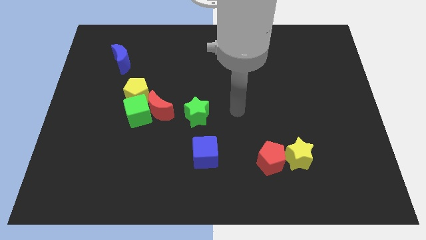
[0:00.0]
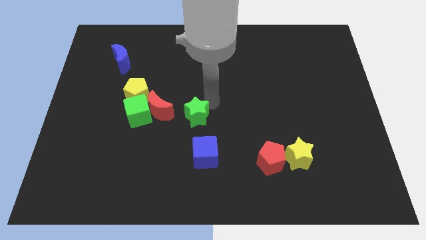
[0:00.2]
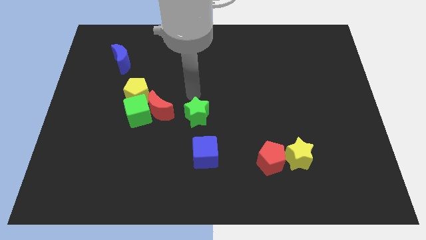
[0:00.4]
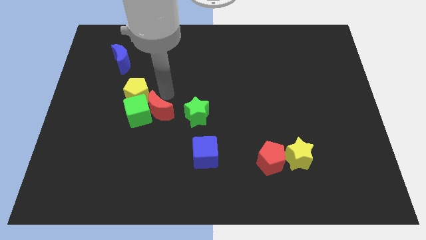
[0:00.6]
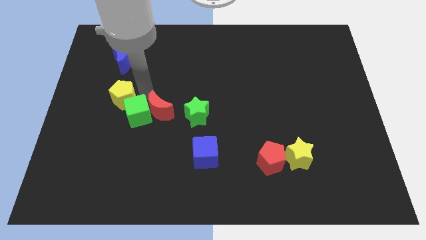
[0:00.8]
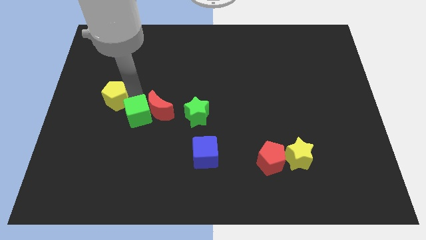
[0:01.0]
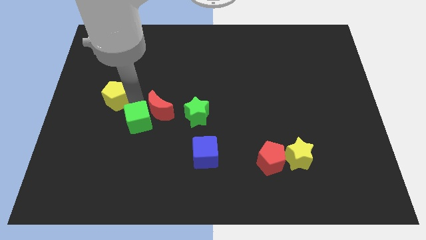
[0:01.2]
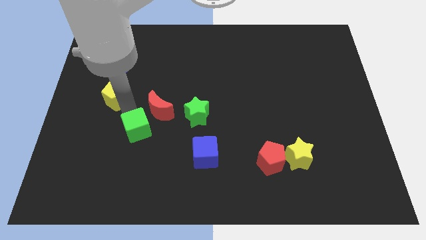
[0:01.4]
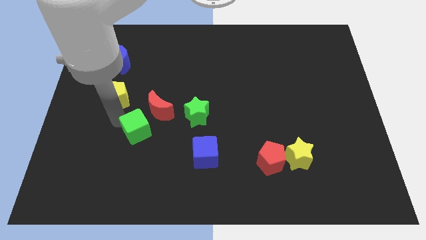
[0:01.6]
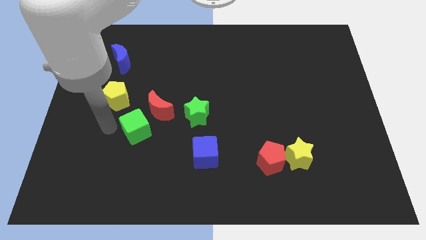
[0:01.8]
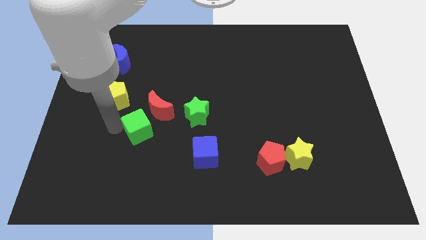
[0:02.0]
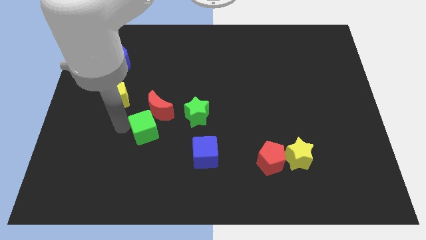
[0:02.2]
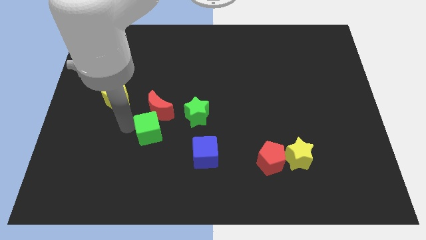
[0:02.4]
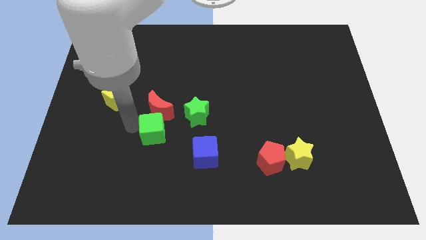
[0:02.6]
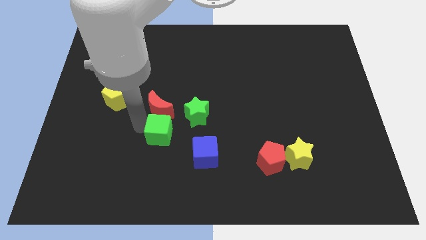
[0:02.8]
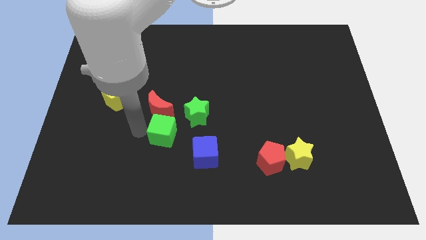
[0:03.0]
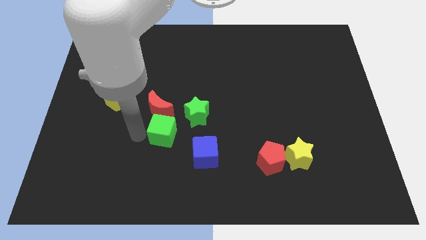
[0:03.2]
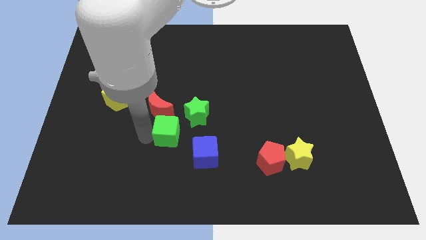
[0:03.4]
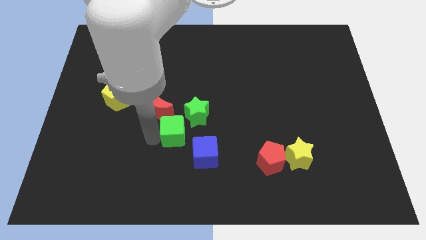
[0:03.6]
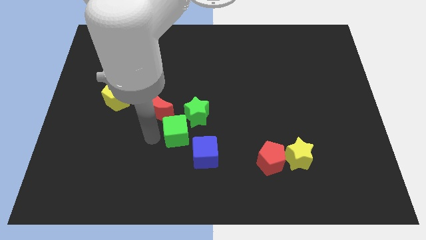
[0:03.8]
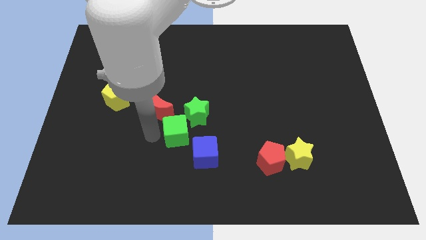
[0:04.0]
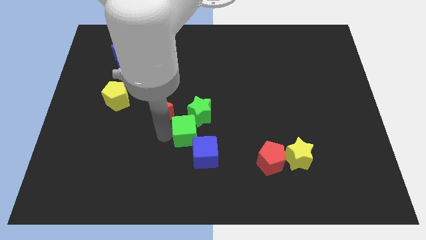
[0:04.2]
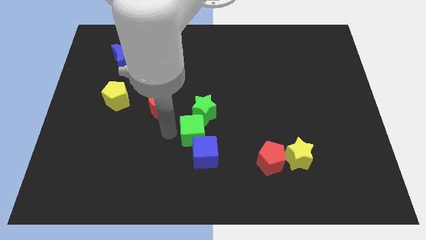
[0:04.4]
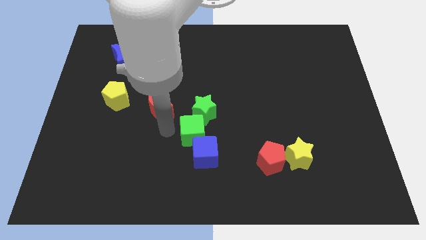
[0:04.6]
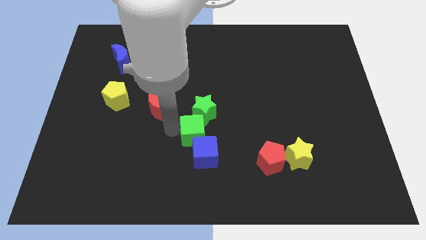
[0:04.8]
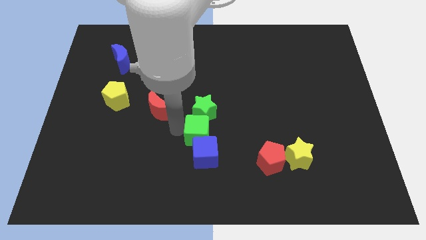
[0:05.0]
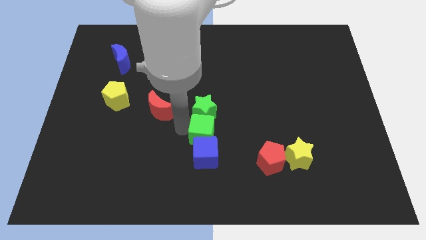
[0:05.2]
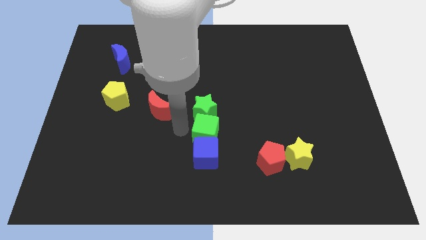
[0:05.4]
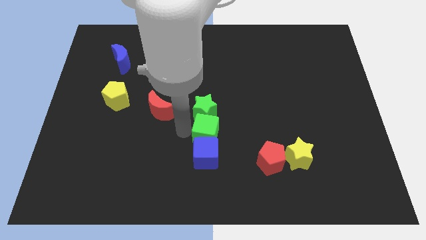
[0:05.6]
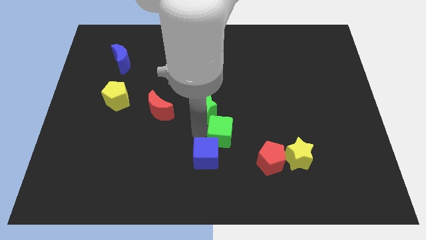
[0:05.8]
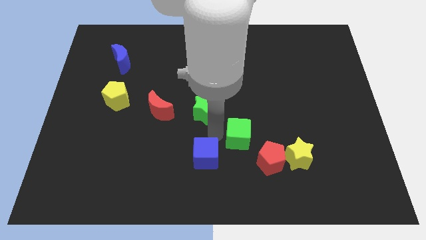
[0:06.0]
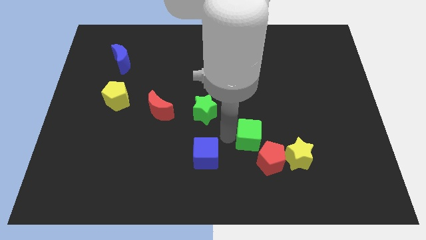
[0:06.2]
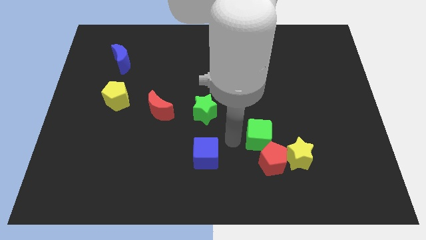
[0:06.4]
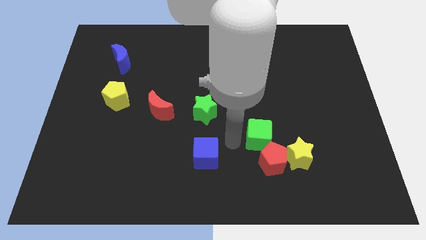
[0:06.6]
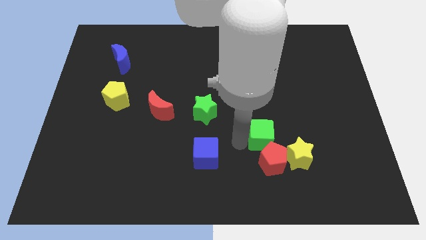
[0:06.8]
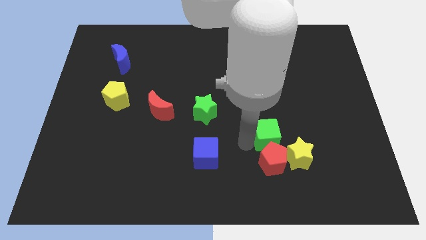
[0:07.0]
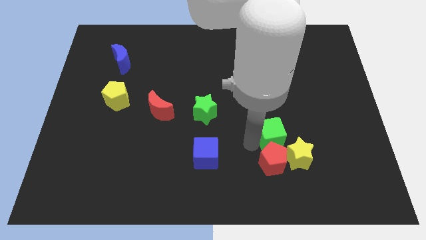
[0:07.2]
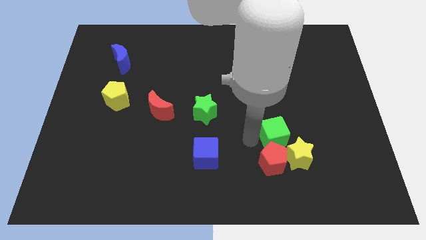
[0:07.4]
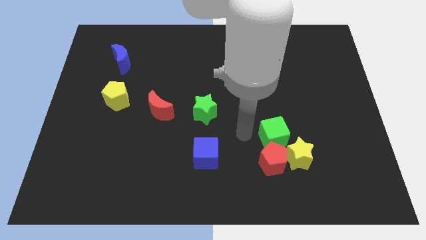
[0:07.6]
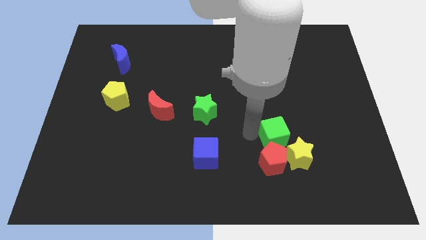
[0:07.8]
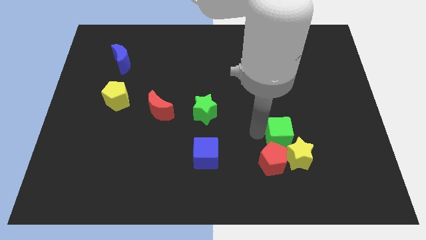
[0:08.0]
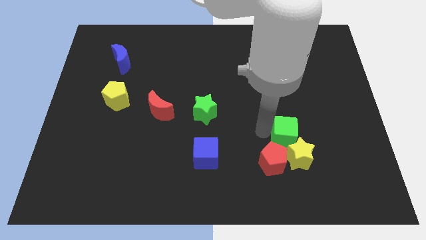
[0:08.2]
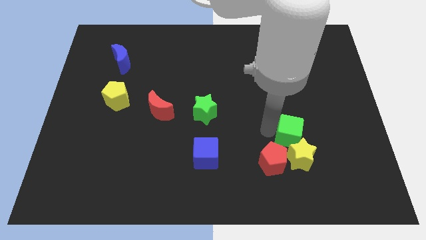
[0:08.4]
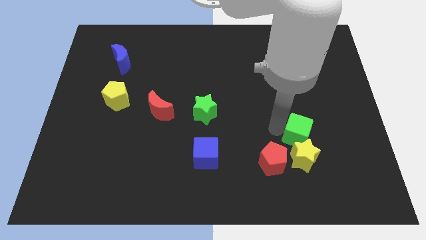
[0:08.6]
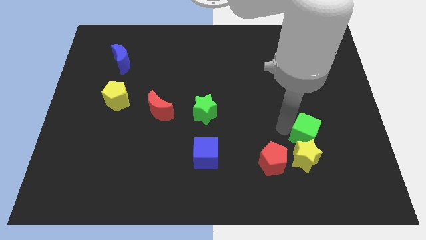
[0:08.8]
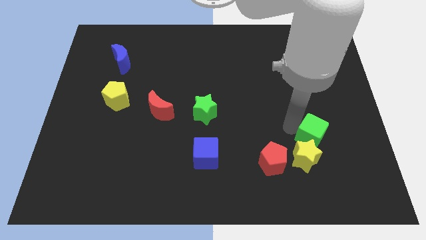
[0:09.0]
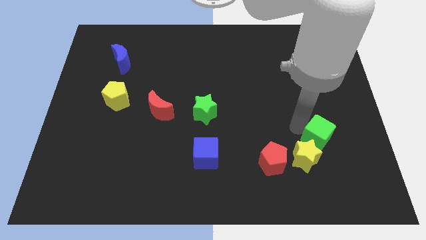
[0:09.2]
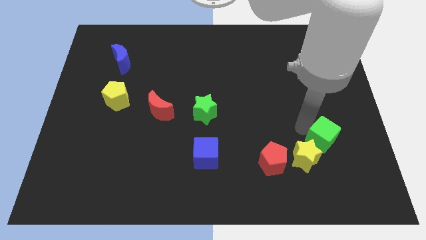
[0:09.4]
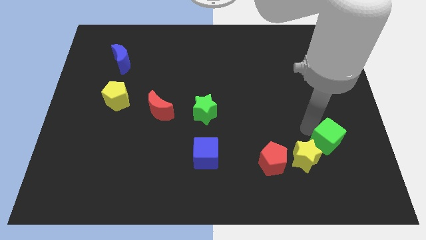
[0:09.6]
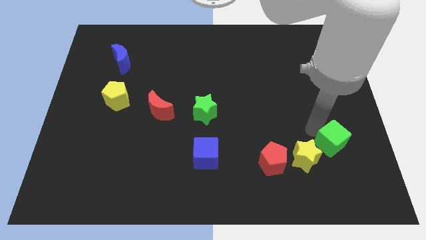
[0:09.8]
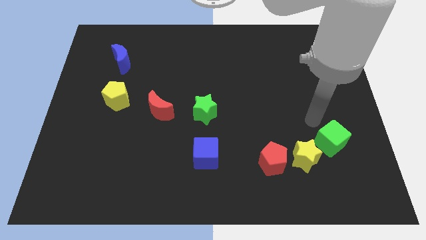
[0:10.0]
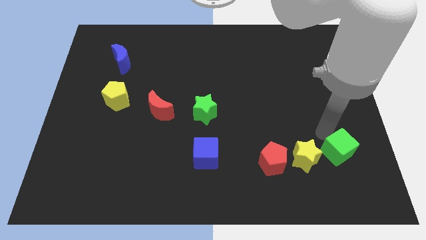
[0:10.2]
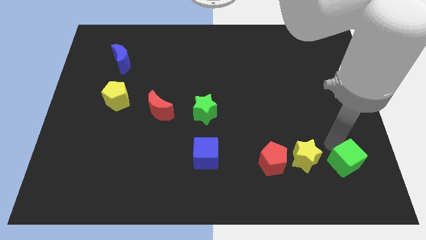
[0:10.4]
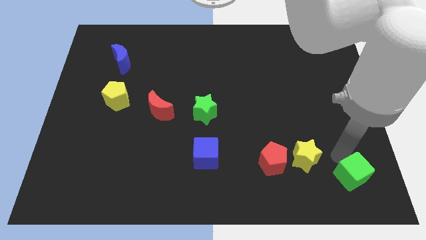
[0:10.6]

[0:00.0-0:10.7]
move the green cube to the bottom right of the board

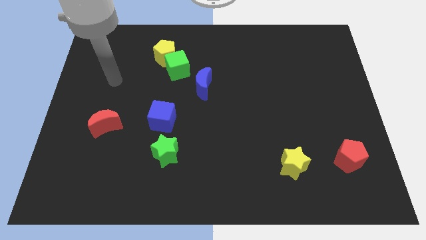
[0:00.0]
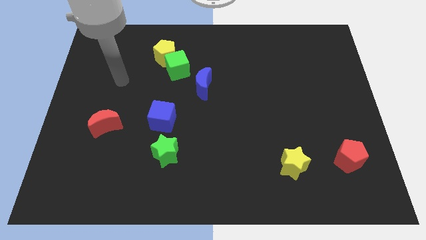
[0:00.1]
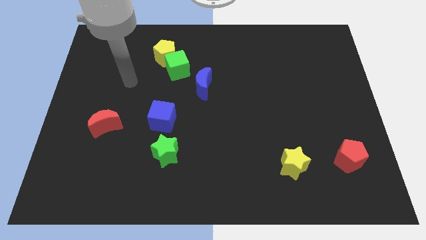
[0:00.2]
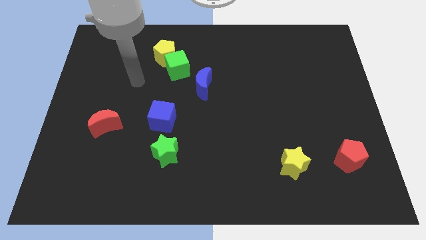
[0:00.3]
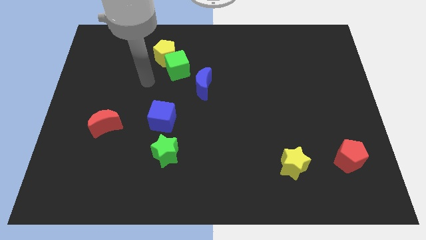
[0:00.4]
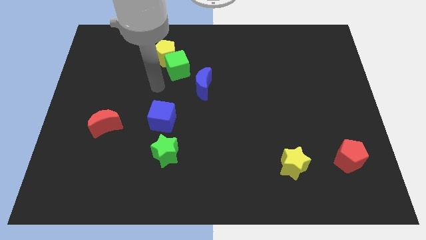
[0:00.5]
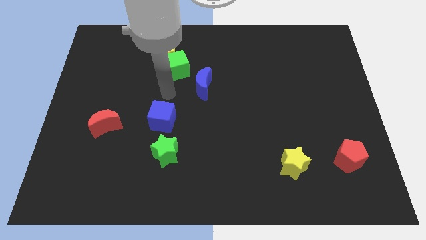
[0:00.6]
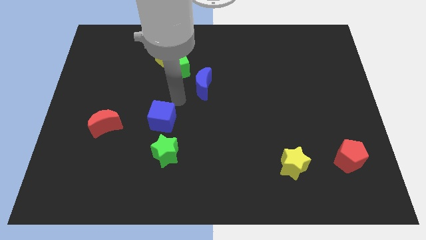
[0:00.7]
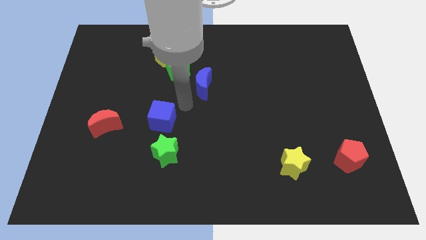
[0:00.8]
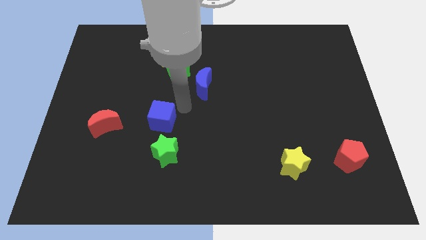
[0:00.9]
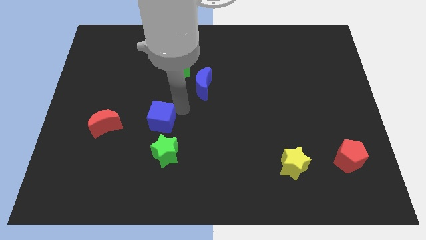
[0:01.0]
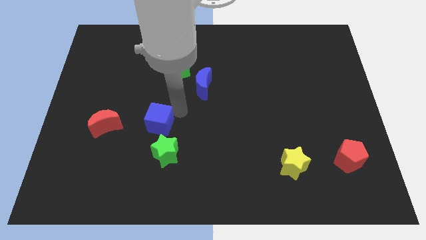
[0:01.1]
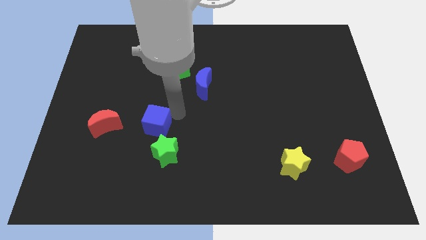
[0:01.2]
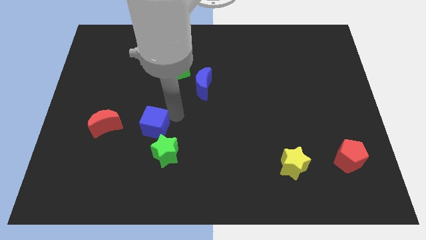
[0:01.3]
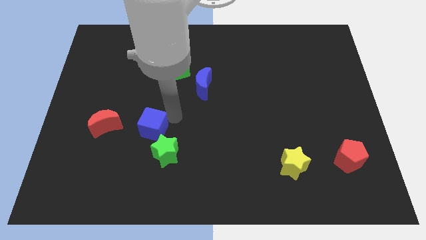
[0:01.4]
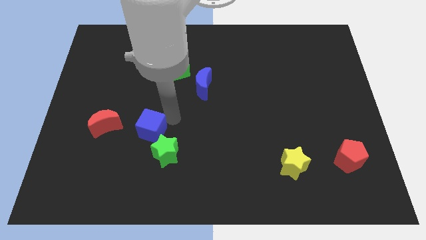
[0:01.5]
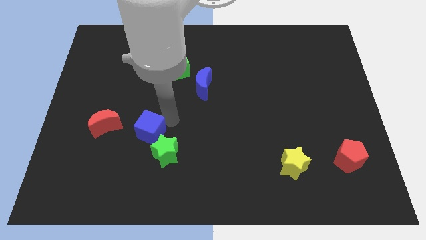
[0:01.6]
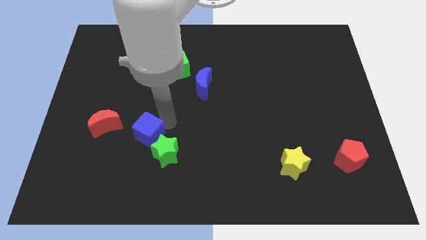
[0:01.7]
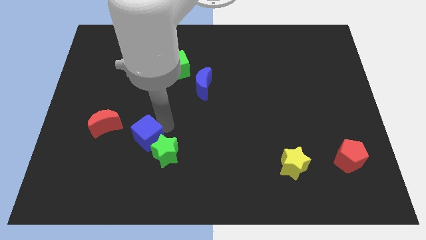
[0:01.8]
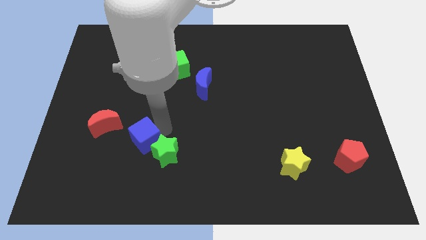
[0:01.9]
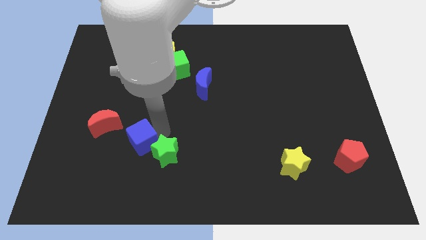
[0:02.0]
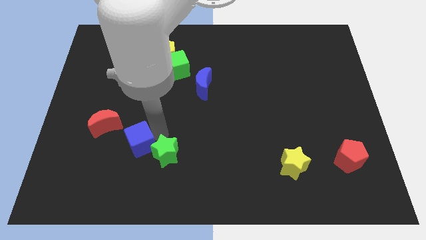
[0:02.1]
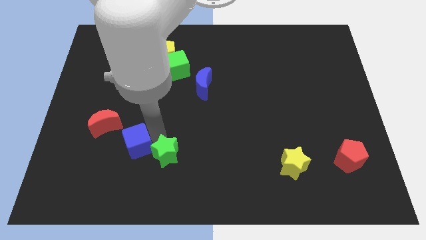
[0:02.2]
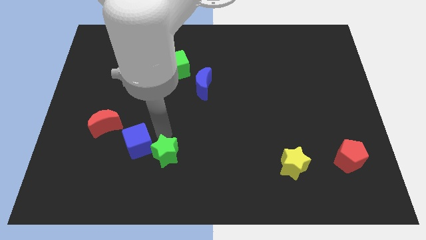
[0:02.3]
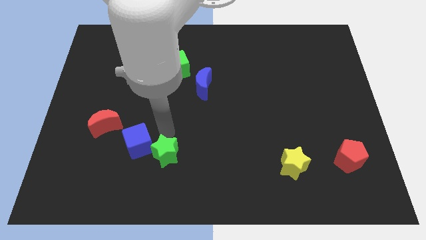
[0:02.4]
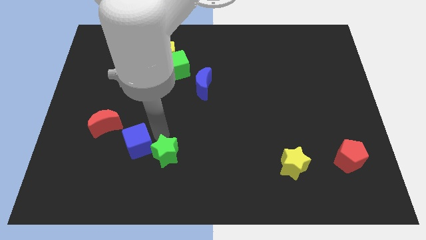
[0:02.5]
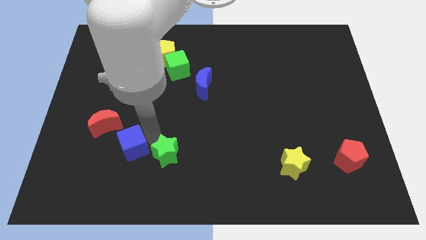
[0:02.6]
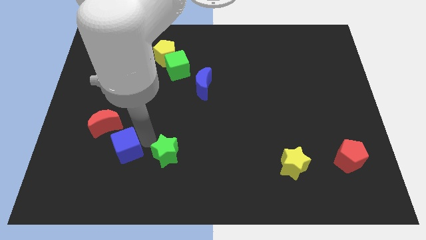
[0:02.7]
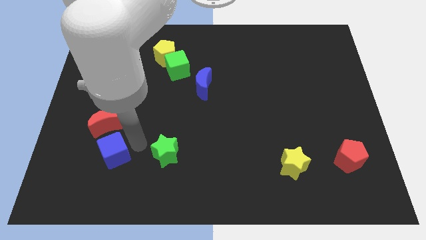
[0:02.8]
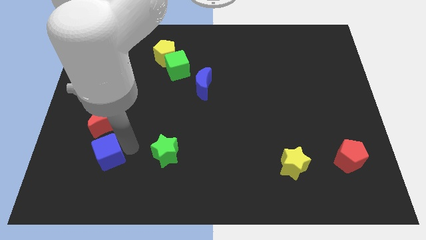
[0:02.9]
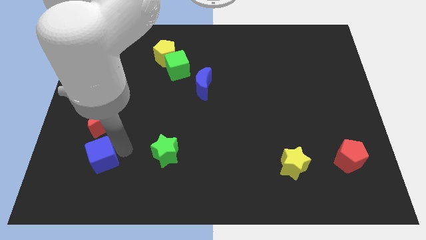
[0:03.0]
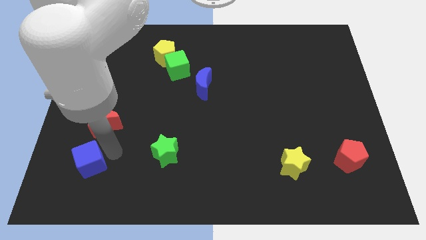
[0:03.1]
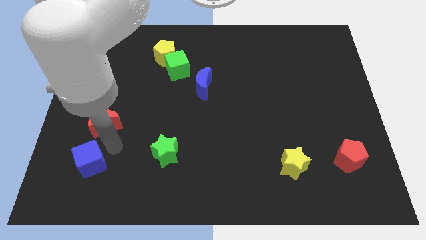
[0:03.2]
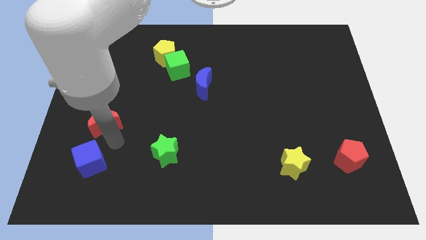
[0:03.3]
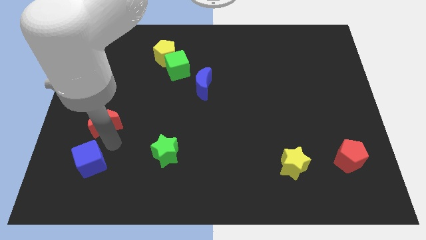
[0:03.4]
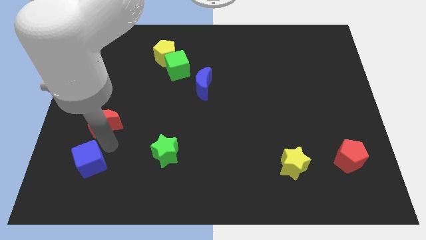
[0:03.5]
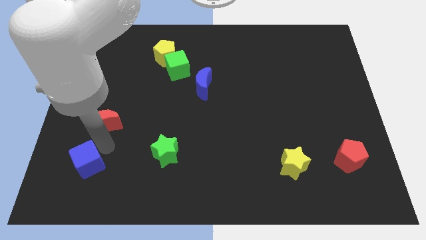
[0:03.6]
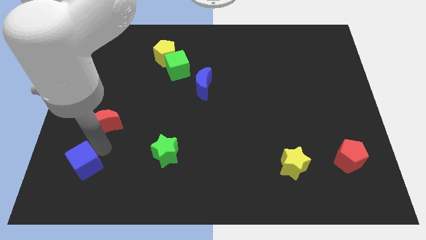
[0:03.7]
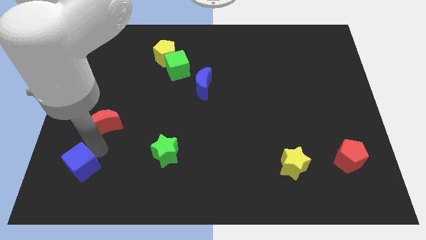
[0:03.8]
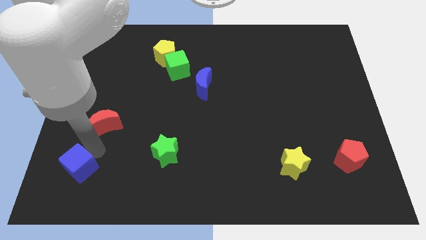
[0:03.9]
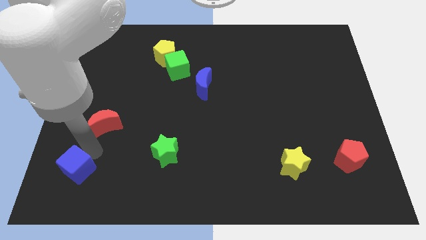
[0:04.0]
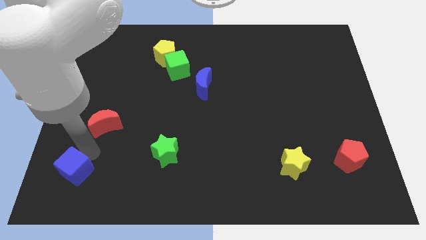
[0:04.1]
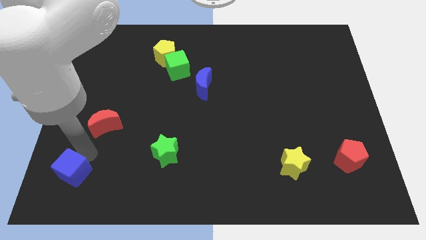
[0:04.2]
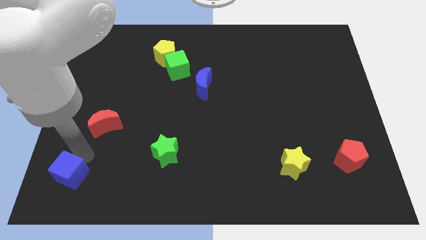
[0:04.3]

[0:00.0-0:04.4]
put the blue cube to the bottom left
